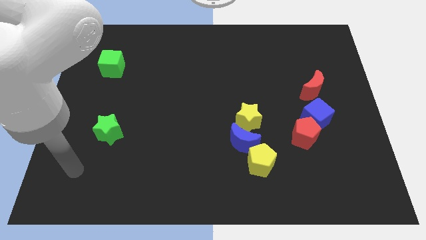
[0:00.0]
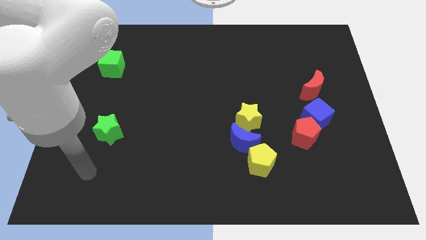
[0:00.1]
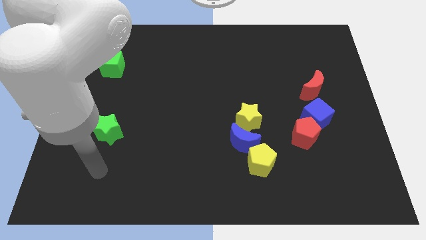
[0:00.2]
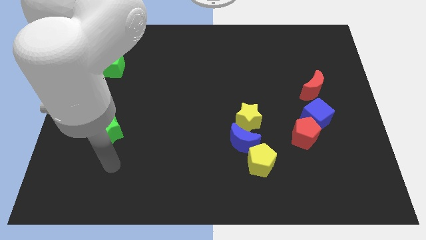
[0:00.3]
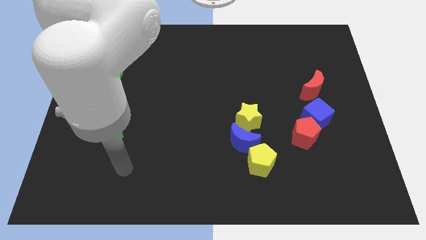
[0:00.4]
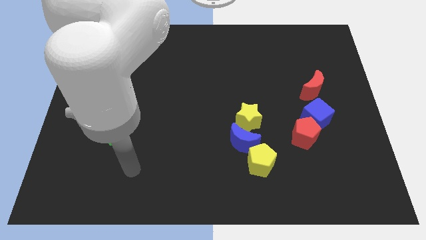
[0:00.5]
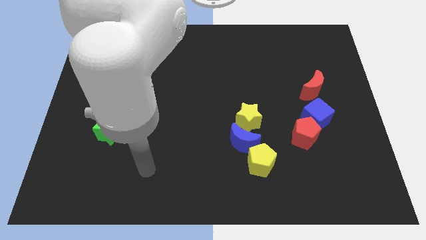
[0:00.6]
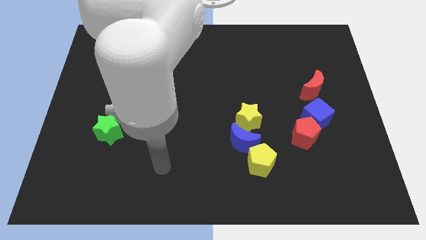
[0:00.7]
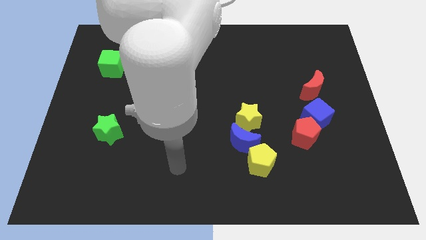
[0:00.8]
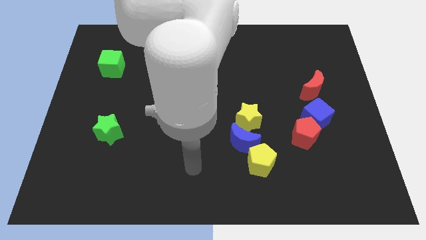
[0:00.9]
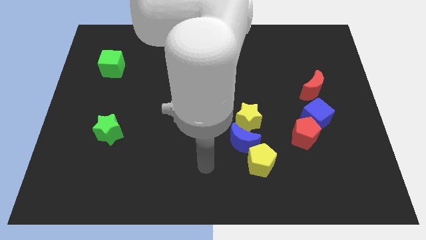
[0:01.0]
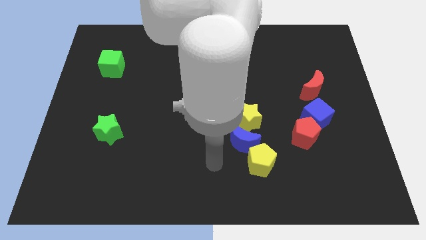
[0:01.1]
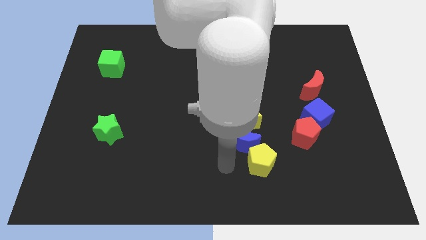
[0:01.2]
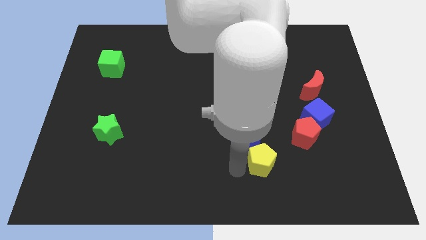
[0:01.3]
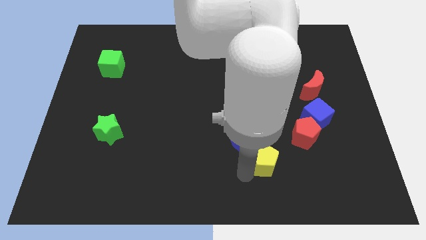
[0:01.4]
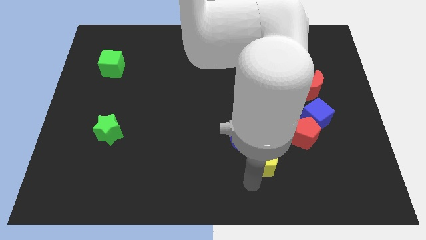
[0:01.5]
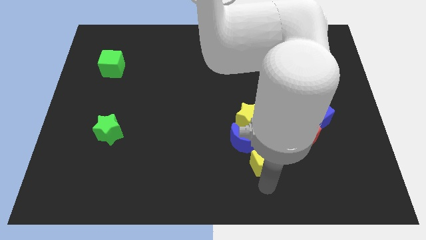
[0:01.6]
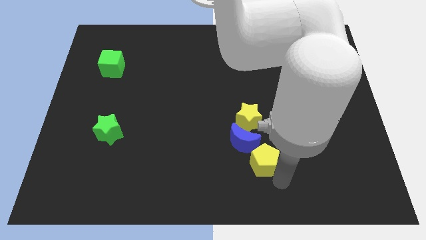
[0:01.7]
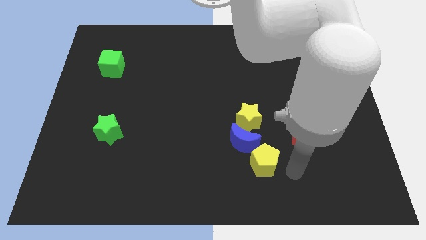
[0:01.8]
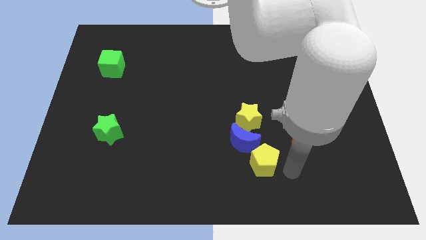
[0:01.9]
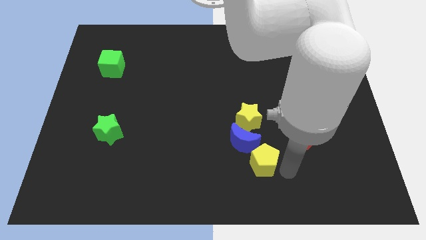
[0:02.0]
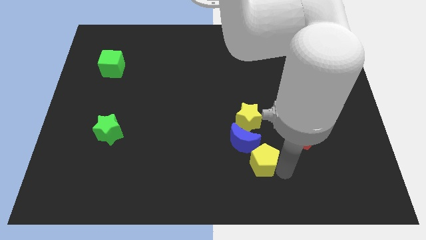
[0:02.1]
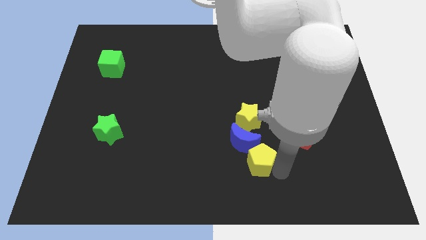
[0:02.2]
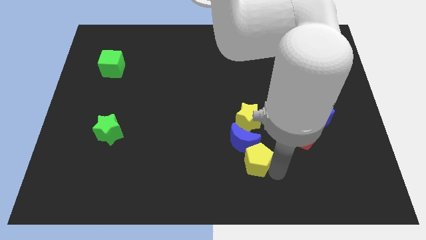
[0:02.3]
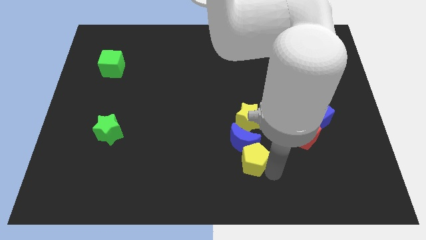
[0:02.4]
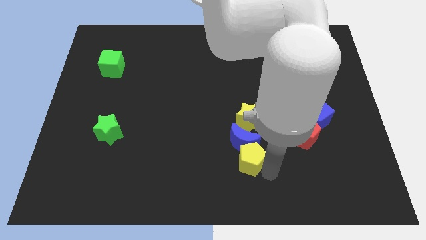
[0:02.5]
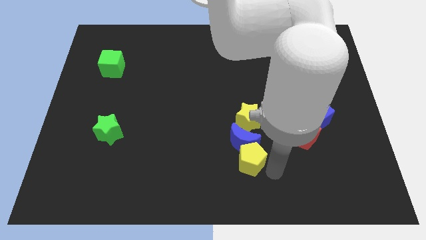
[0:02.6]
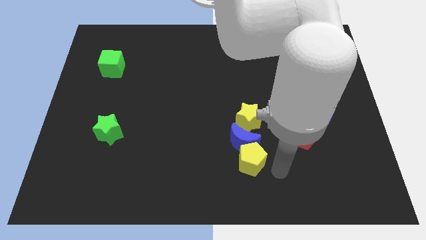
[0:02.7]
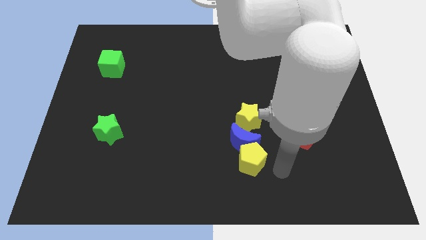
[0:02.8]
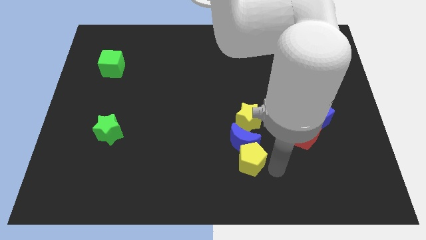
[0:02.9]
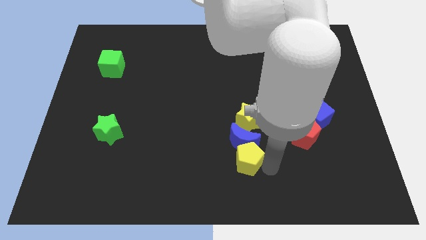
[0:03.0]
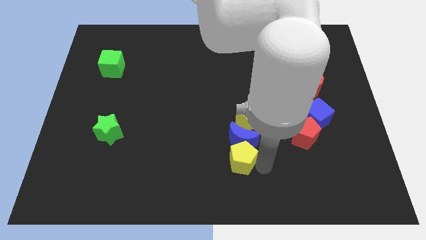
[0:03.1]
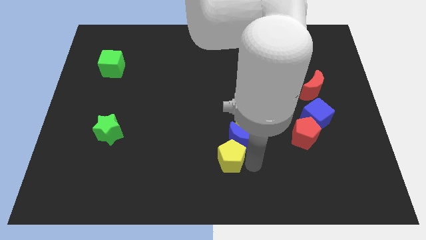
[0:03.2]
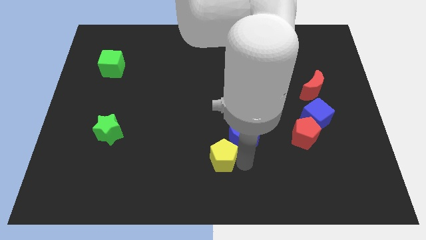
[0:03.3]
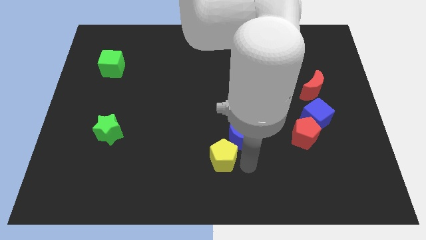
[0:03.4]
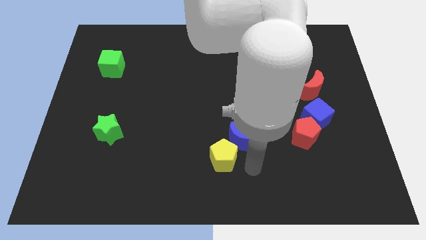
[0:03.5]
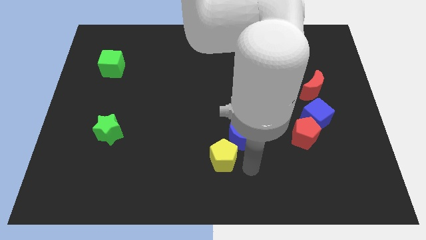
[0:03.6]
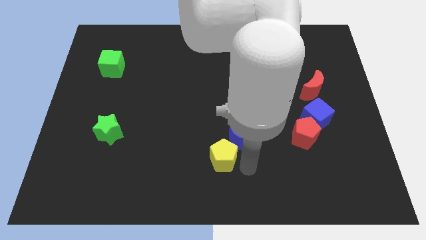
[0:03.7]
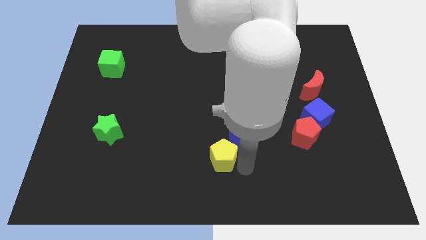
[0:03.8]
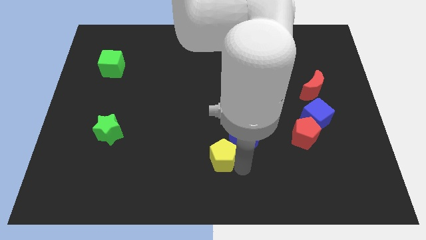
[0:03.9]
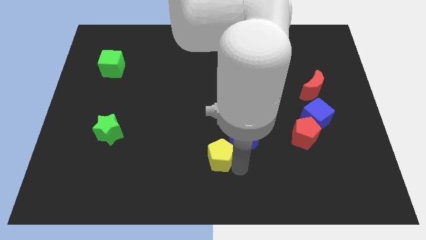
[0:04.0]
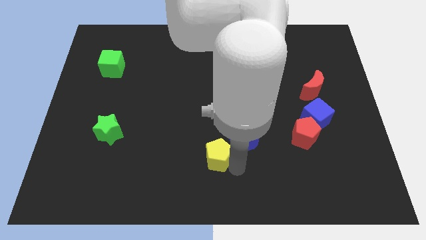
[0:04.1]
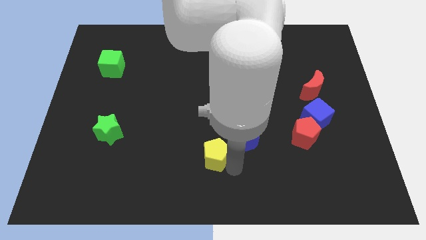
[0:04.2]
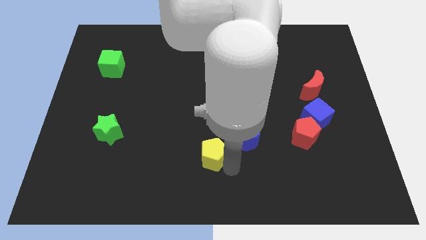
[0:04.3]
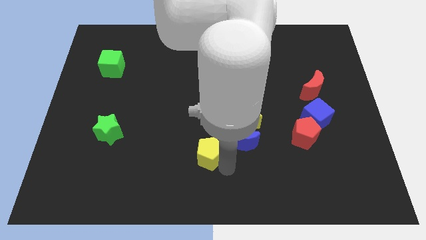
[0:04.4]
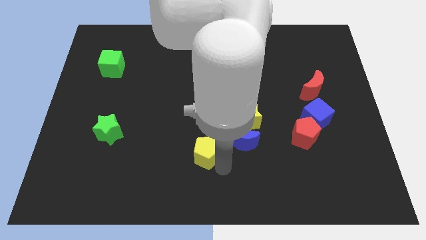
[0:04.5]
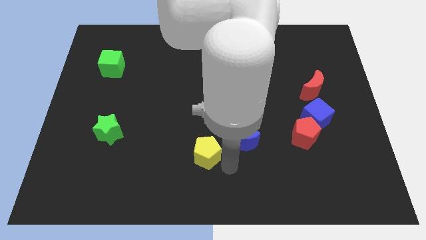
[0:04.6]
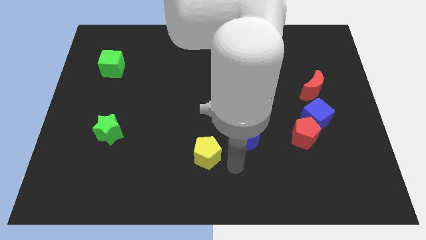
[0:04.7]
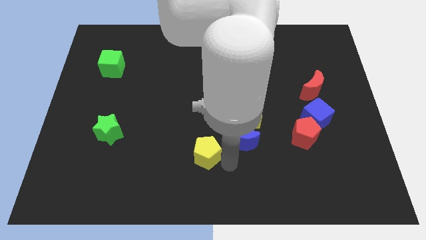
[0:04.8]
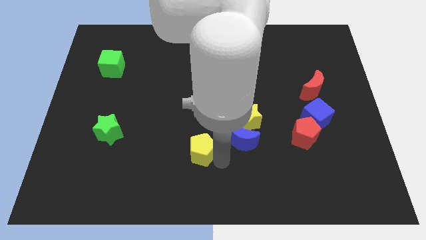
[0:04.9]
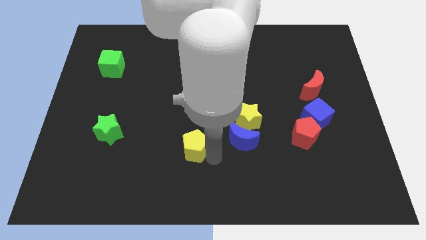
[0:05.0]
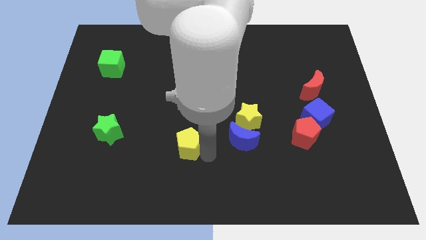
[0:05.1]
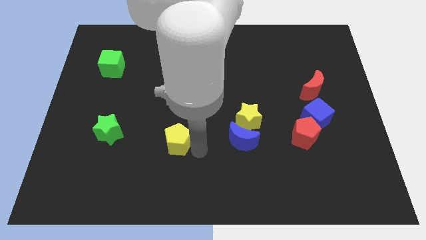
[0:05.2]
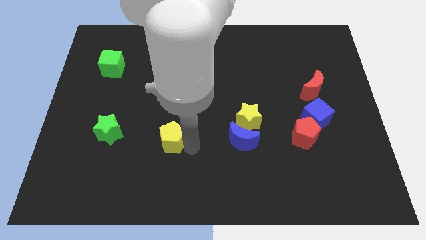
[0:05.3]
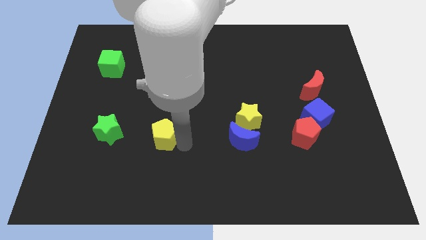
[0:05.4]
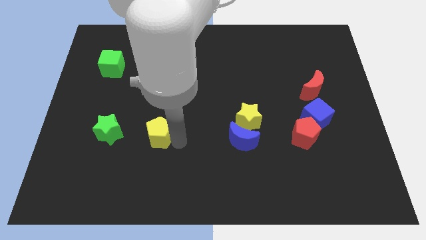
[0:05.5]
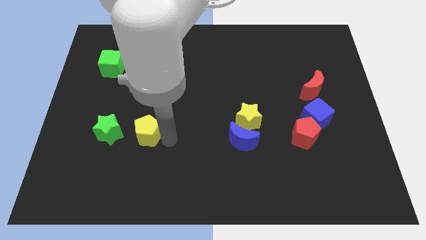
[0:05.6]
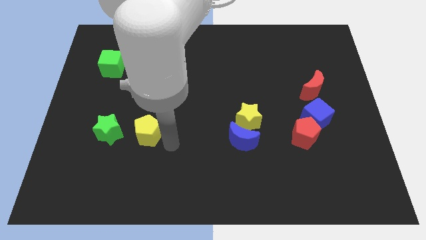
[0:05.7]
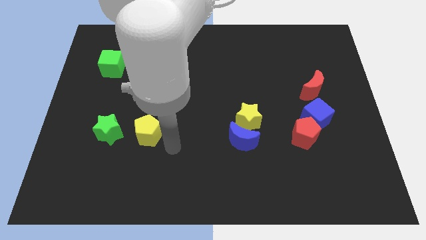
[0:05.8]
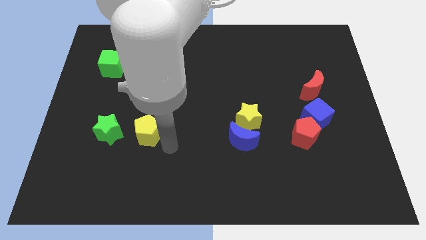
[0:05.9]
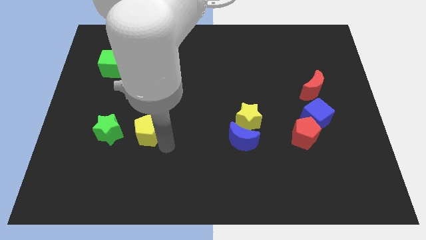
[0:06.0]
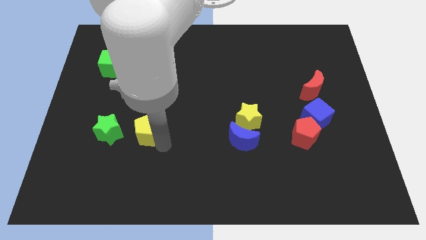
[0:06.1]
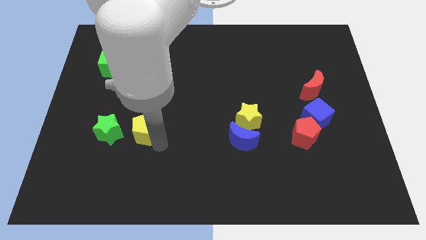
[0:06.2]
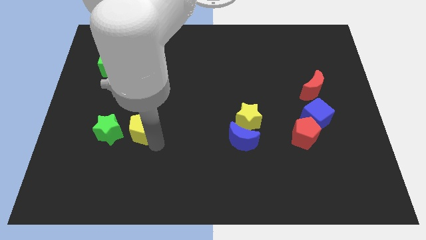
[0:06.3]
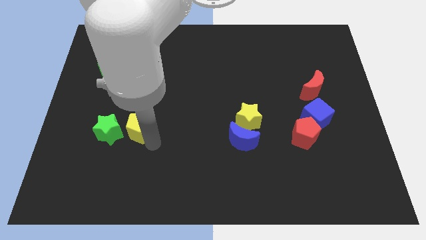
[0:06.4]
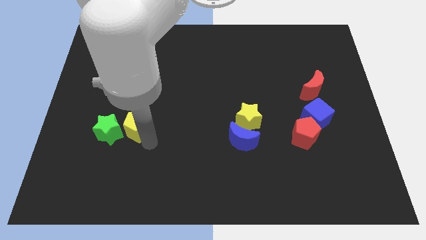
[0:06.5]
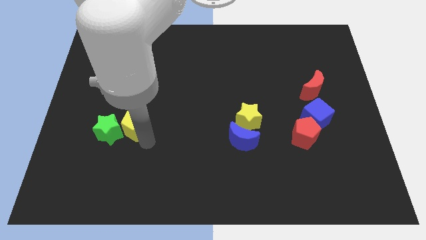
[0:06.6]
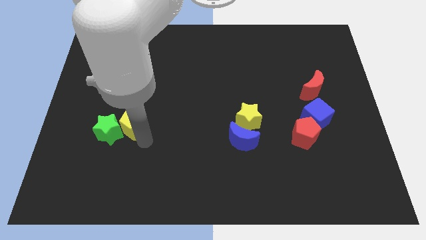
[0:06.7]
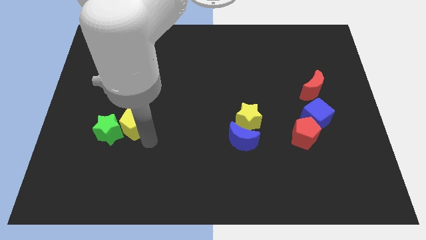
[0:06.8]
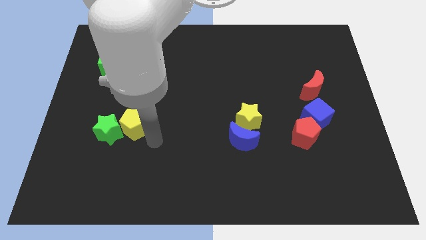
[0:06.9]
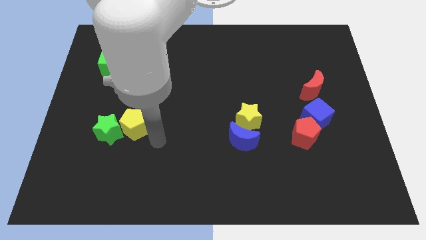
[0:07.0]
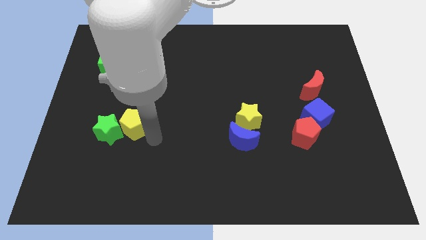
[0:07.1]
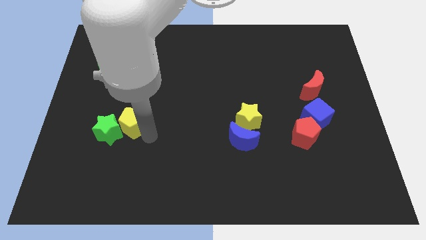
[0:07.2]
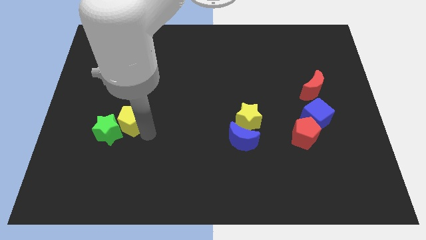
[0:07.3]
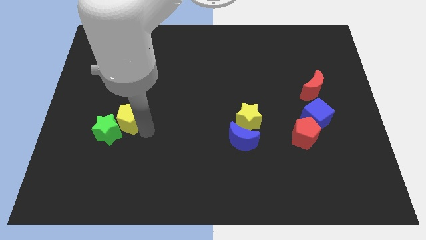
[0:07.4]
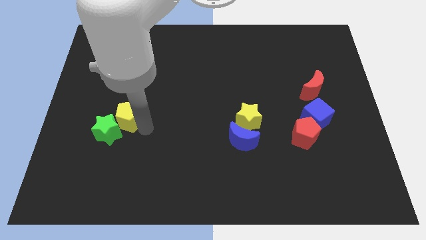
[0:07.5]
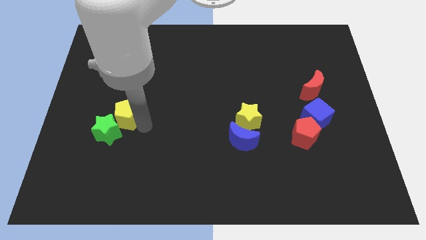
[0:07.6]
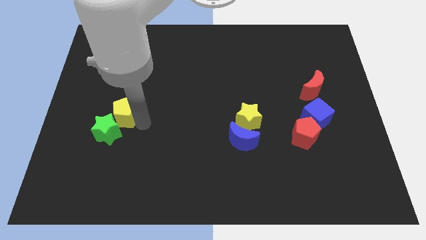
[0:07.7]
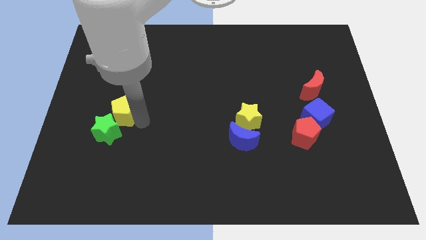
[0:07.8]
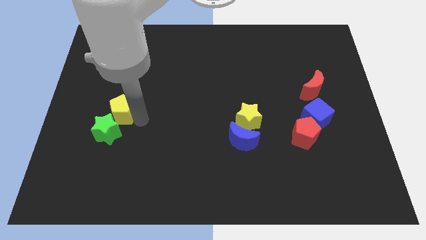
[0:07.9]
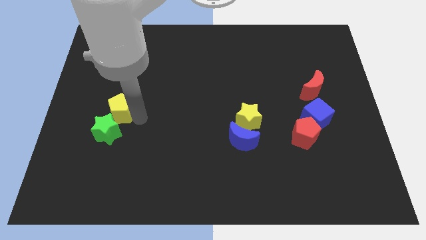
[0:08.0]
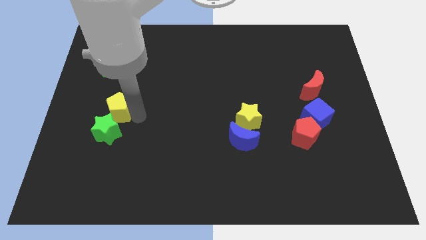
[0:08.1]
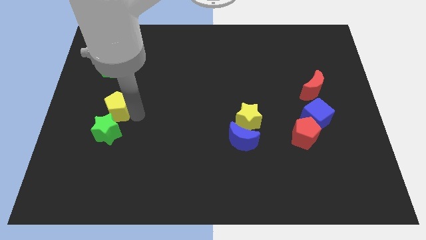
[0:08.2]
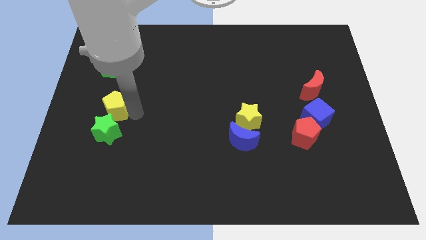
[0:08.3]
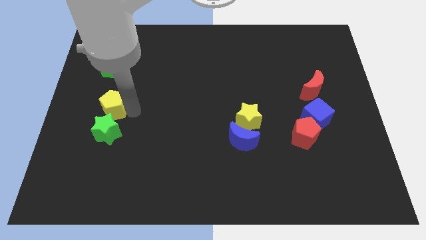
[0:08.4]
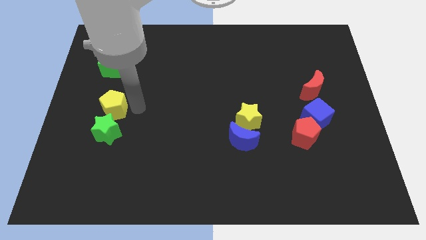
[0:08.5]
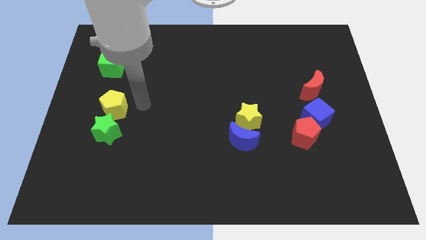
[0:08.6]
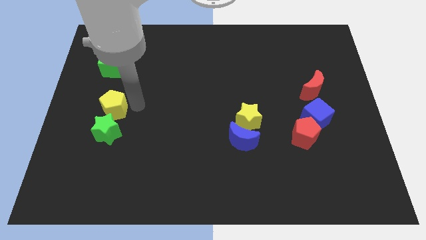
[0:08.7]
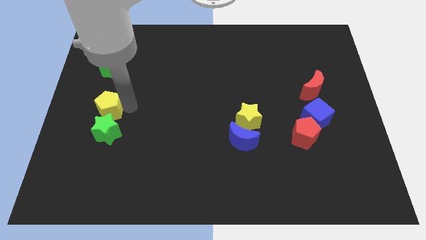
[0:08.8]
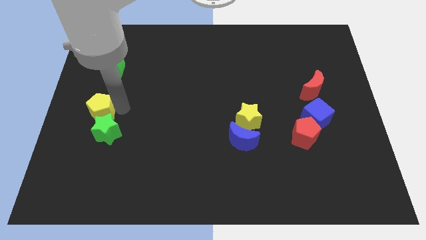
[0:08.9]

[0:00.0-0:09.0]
put the yellow pentagon to the left side of the board
